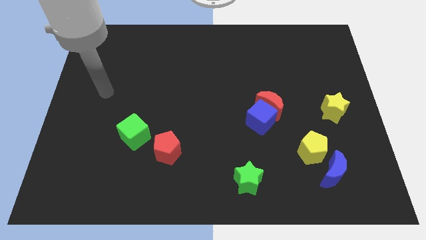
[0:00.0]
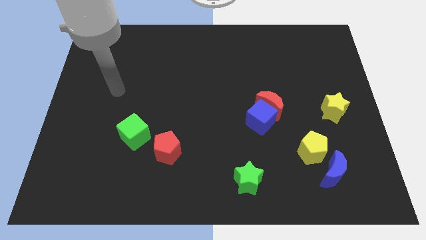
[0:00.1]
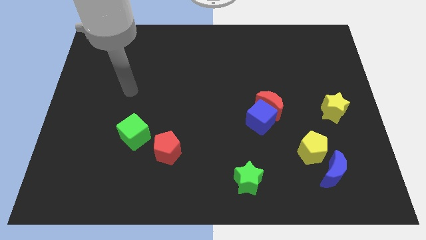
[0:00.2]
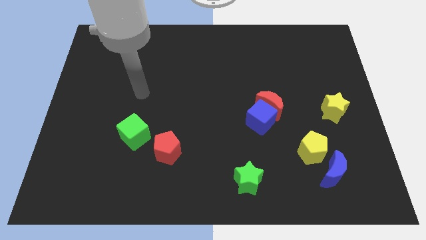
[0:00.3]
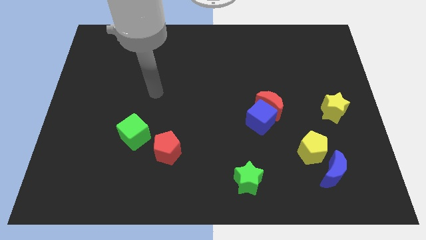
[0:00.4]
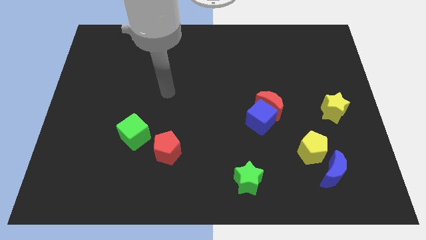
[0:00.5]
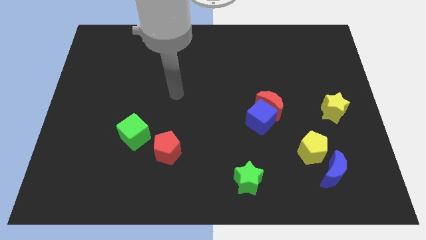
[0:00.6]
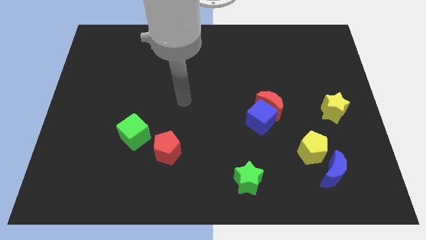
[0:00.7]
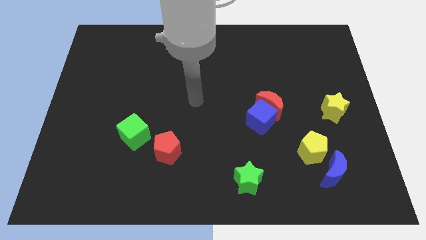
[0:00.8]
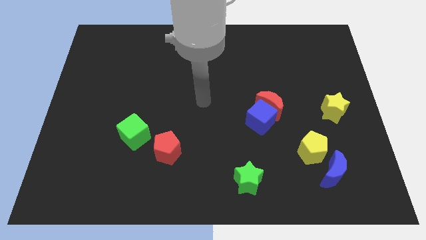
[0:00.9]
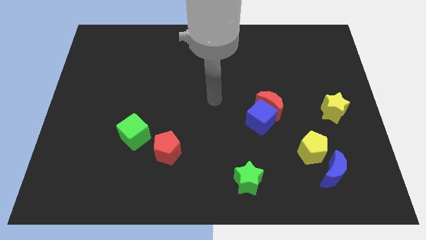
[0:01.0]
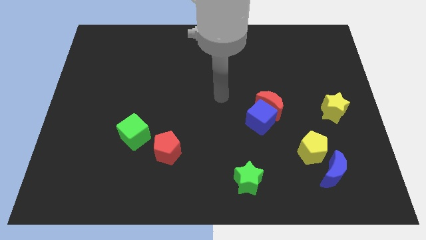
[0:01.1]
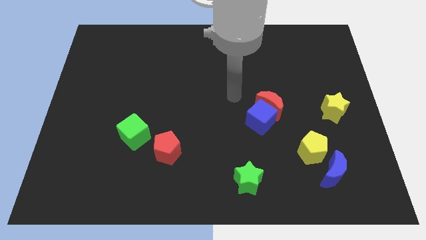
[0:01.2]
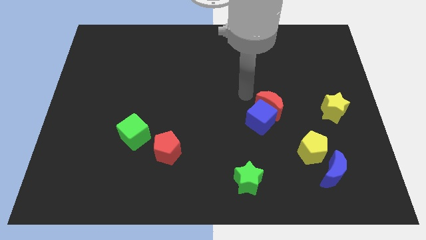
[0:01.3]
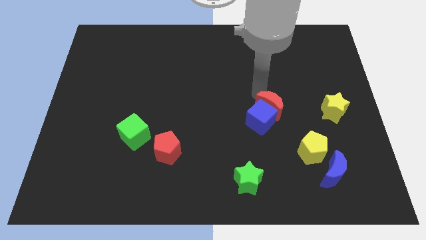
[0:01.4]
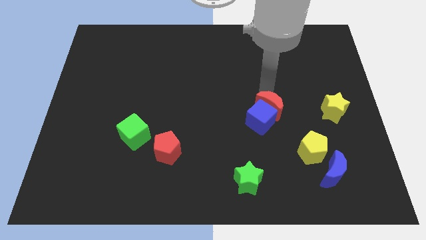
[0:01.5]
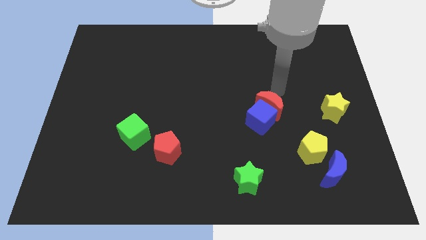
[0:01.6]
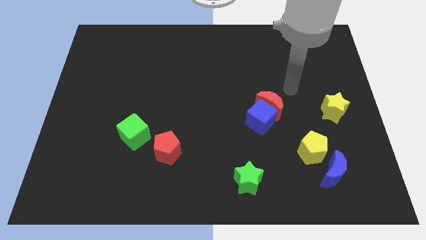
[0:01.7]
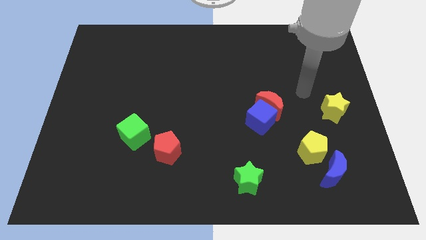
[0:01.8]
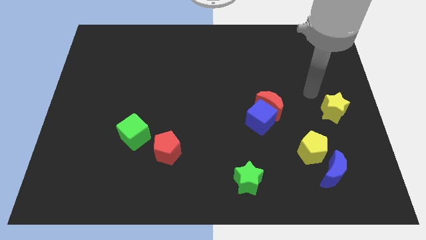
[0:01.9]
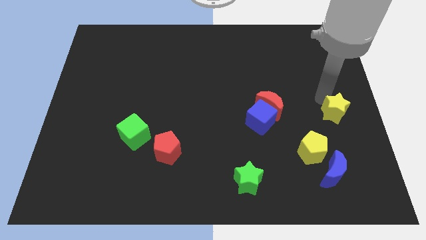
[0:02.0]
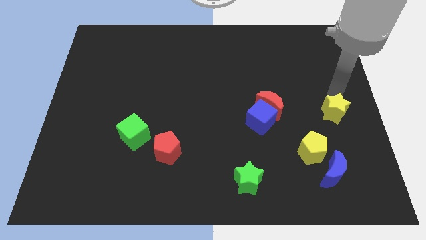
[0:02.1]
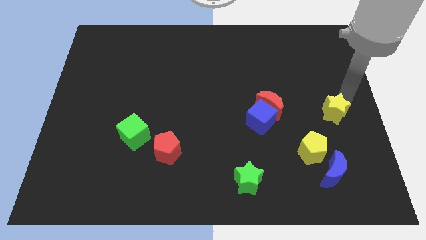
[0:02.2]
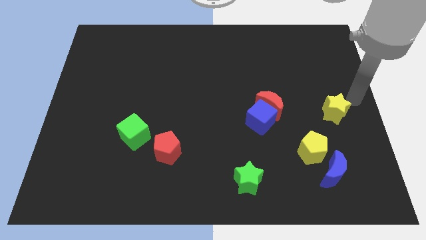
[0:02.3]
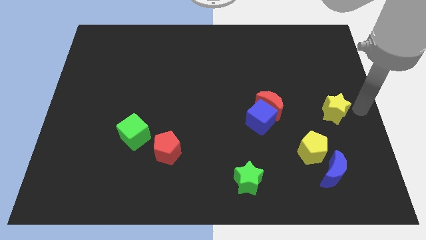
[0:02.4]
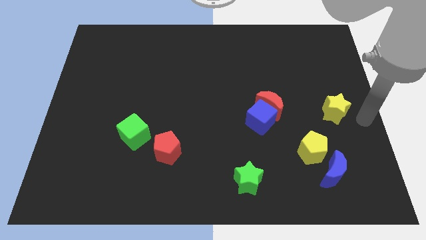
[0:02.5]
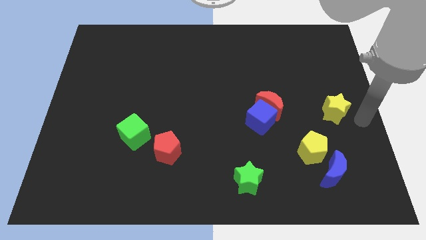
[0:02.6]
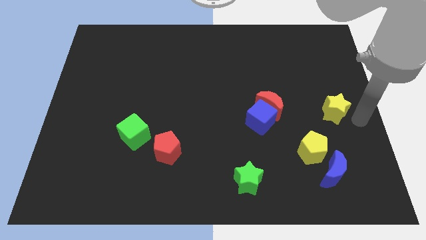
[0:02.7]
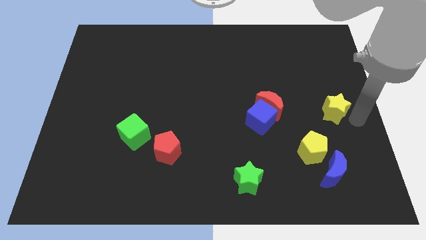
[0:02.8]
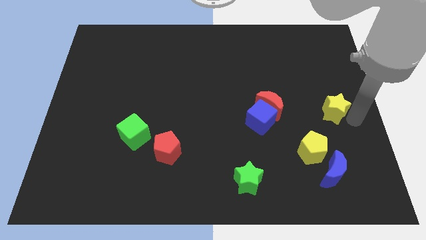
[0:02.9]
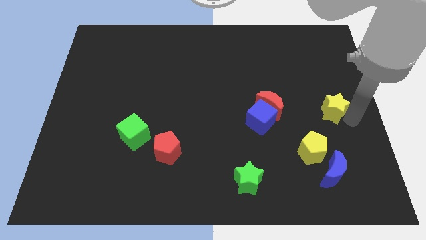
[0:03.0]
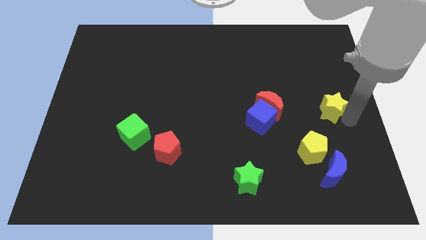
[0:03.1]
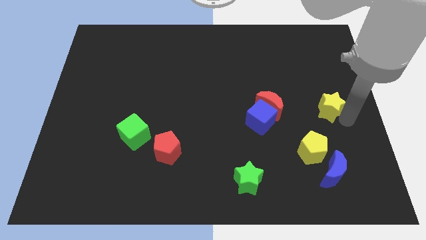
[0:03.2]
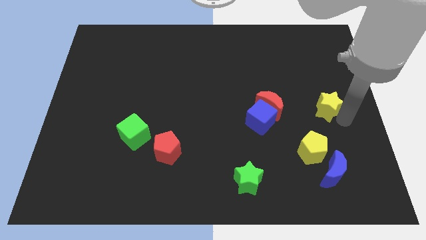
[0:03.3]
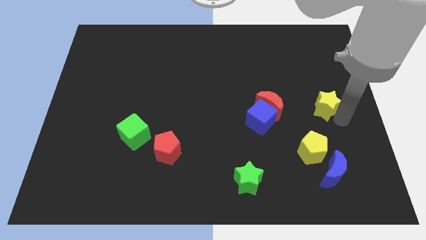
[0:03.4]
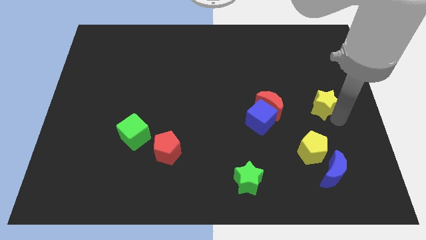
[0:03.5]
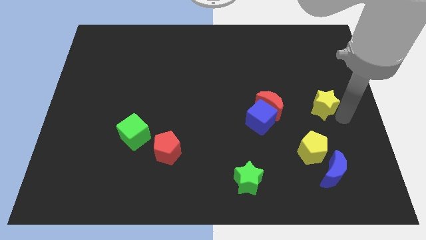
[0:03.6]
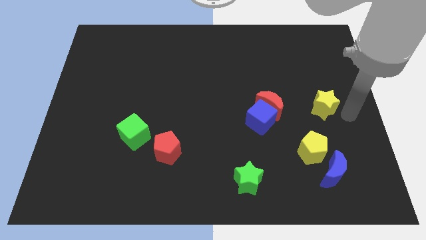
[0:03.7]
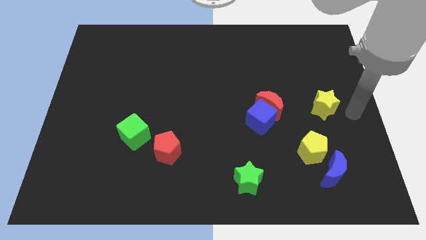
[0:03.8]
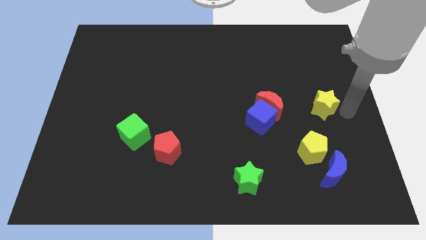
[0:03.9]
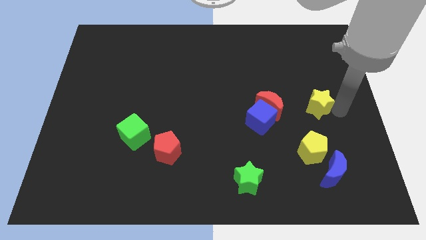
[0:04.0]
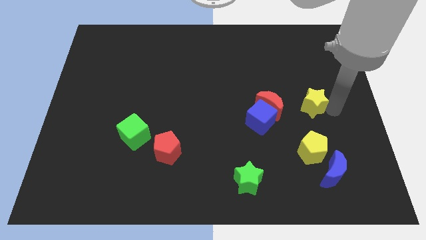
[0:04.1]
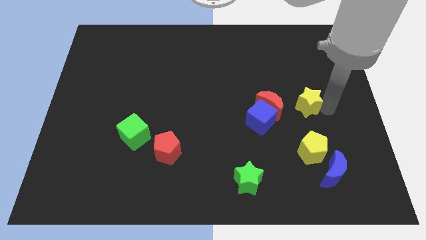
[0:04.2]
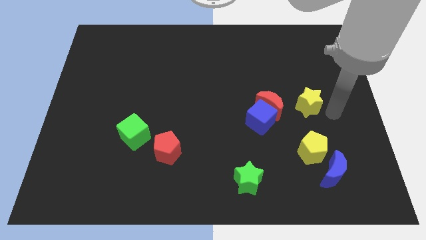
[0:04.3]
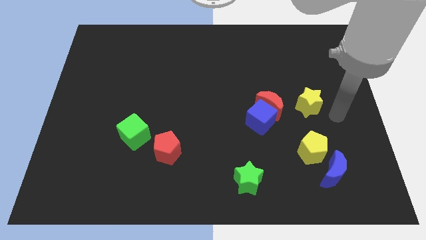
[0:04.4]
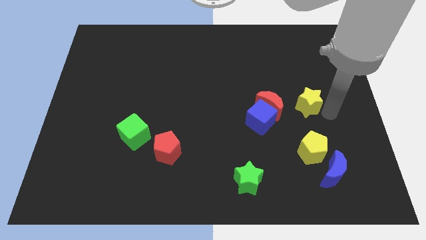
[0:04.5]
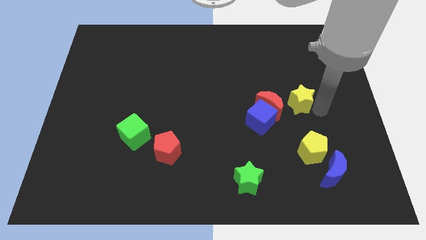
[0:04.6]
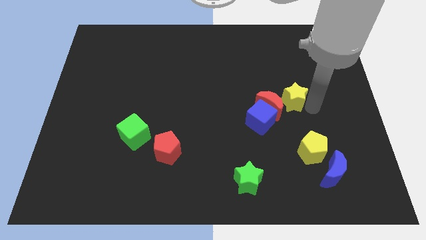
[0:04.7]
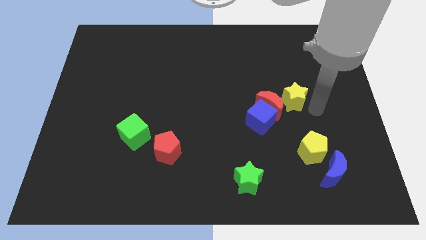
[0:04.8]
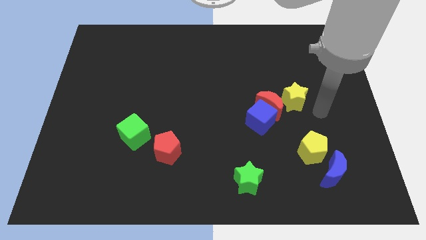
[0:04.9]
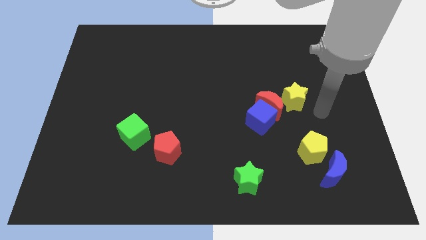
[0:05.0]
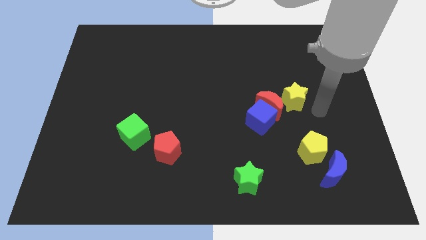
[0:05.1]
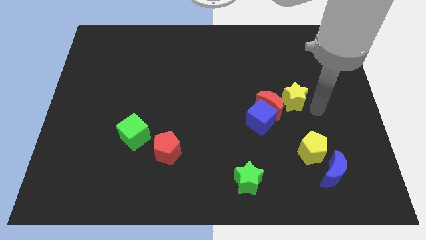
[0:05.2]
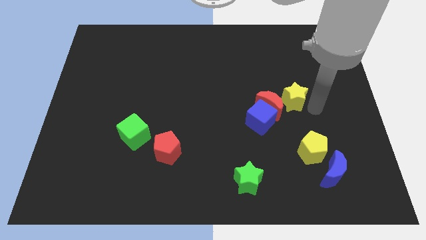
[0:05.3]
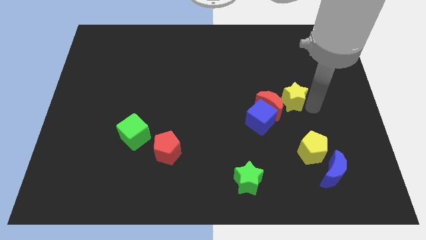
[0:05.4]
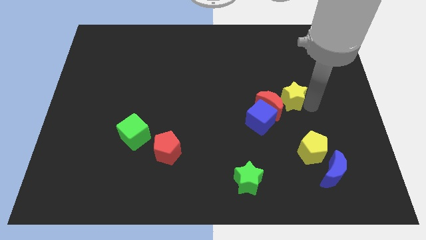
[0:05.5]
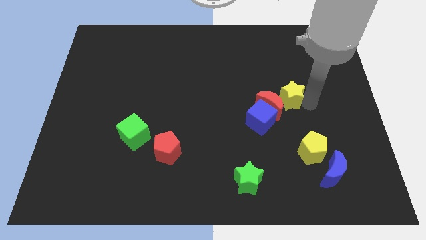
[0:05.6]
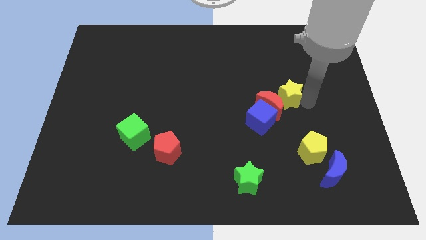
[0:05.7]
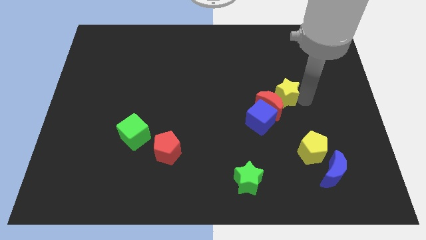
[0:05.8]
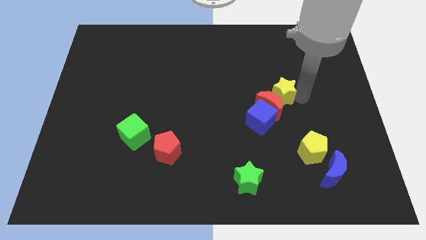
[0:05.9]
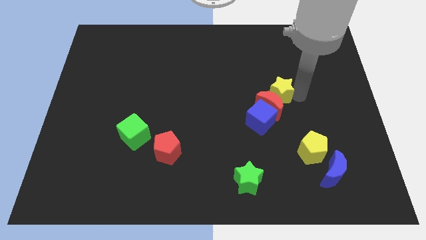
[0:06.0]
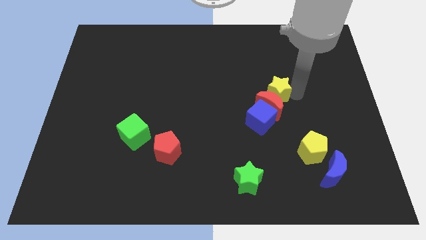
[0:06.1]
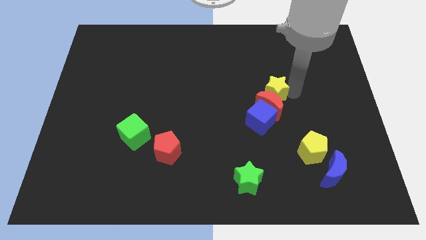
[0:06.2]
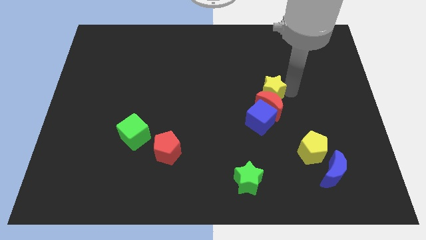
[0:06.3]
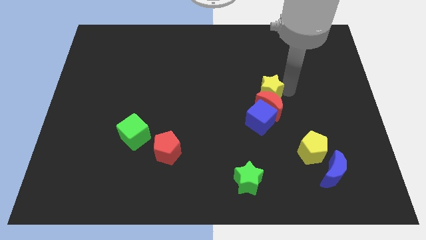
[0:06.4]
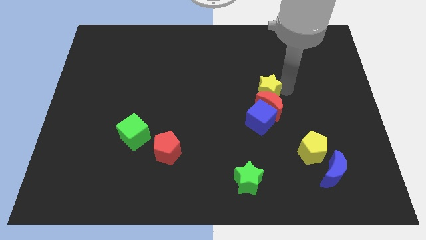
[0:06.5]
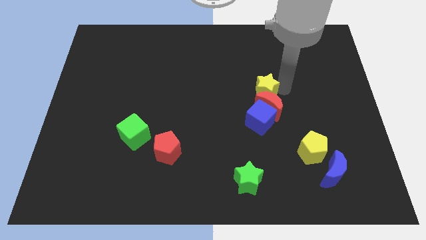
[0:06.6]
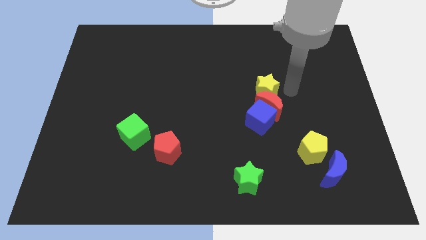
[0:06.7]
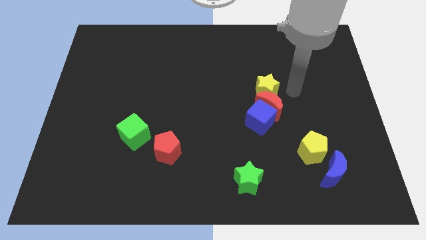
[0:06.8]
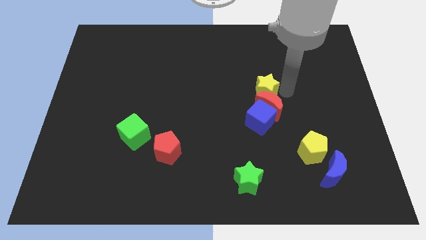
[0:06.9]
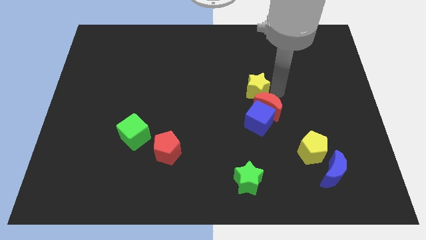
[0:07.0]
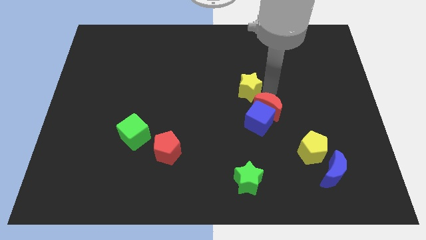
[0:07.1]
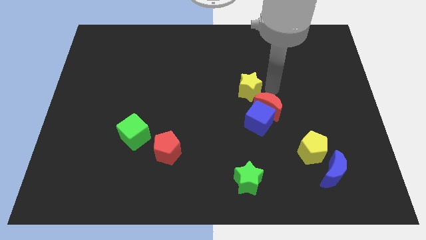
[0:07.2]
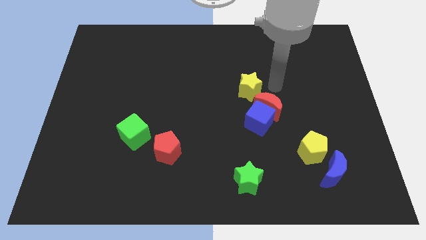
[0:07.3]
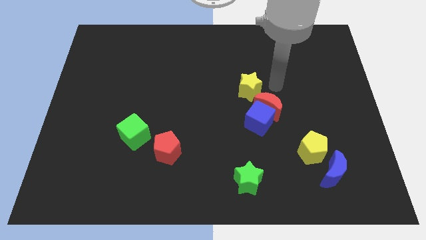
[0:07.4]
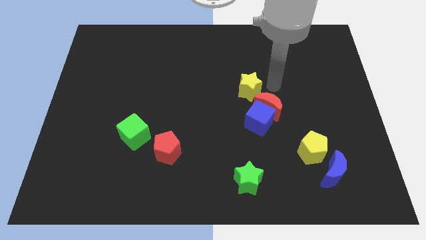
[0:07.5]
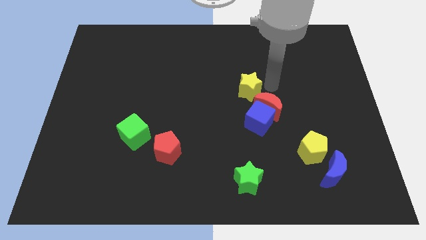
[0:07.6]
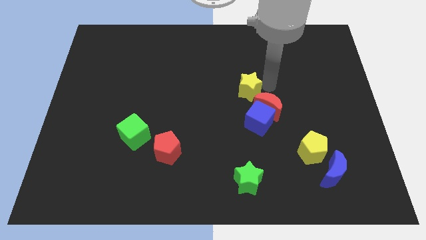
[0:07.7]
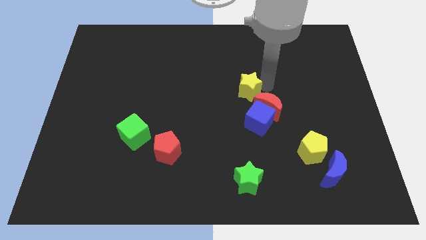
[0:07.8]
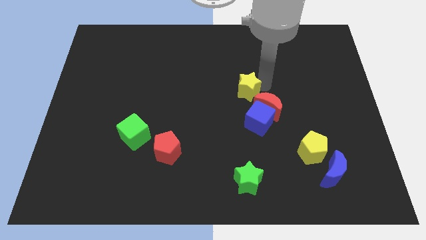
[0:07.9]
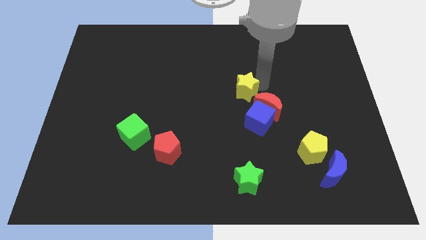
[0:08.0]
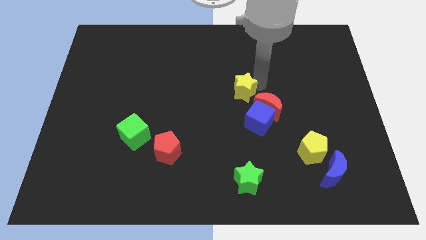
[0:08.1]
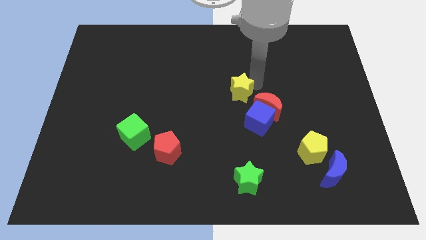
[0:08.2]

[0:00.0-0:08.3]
push the yellow star left
